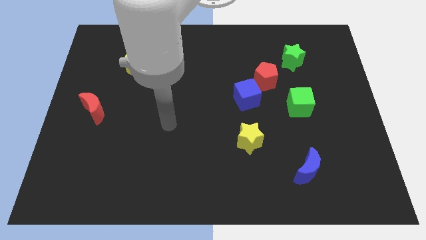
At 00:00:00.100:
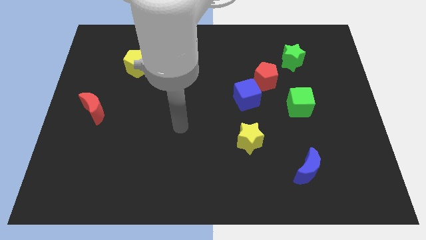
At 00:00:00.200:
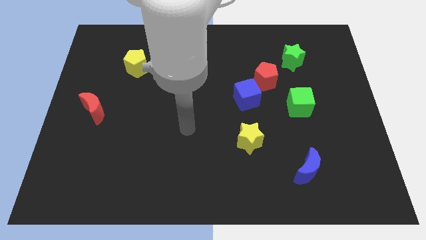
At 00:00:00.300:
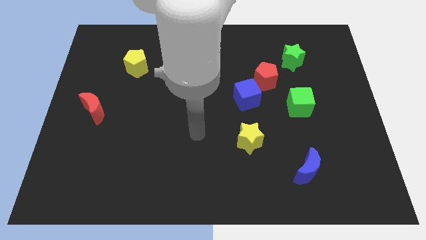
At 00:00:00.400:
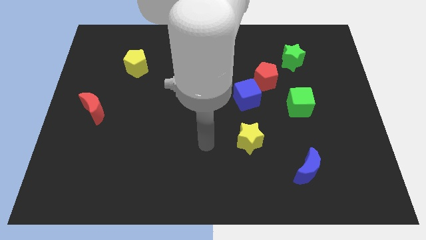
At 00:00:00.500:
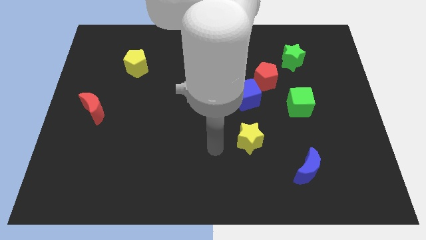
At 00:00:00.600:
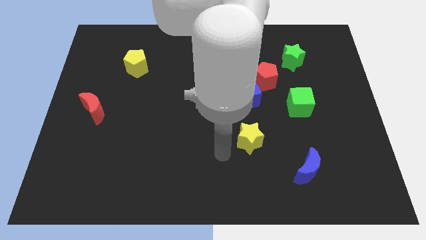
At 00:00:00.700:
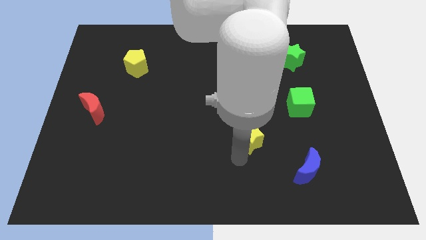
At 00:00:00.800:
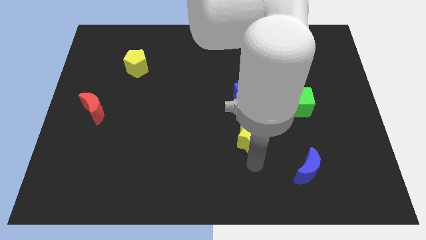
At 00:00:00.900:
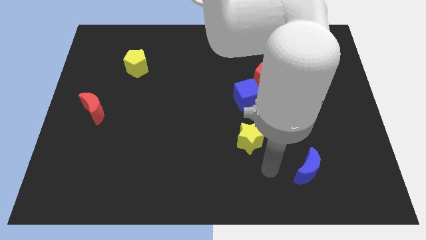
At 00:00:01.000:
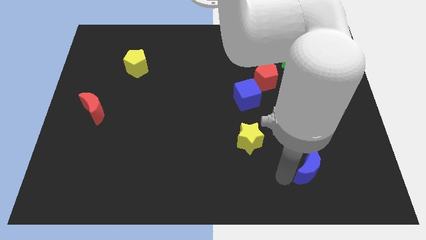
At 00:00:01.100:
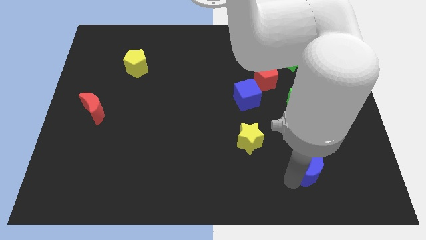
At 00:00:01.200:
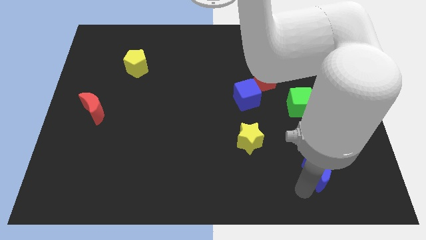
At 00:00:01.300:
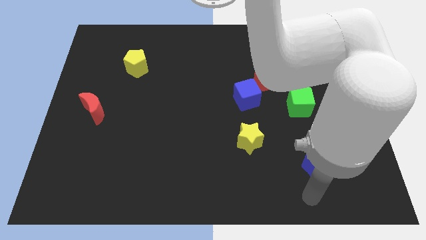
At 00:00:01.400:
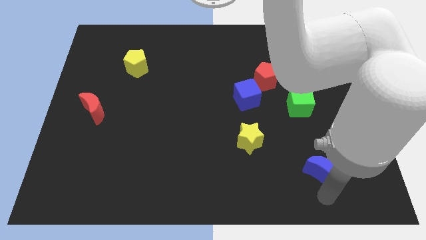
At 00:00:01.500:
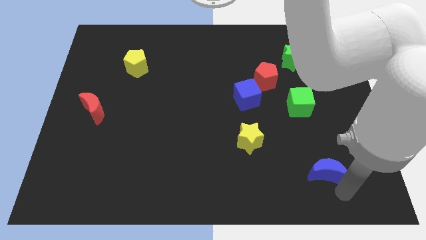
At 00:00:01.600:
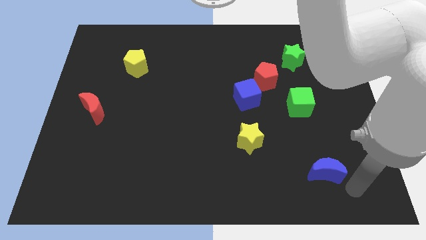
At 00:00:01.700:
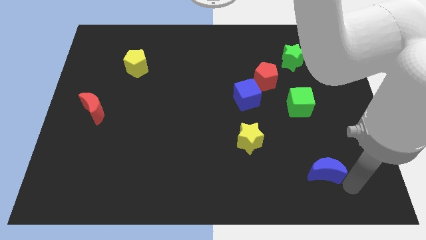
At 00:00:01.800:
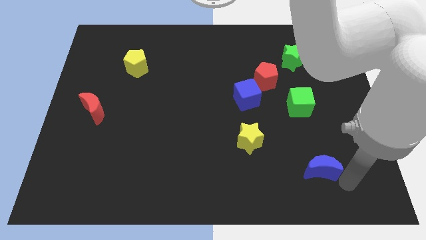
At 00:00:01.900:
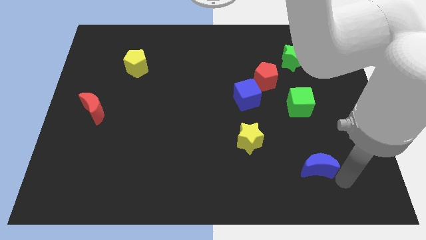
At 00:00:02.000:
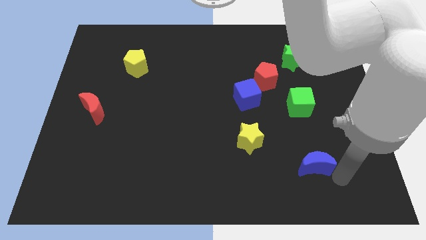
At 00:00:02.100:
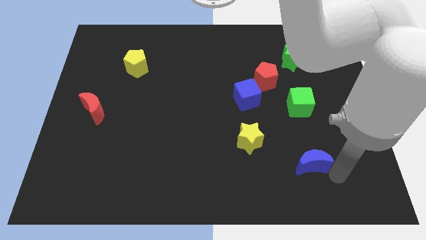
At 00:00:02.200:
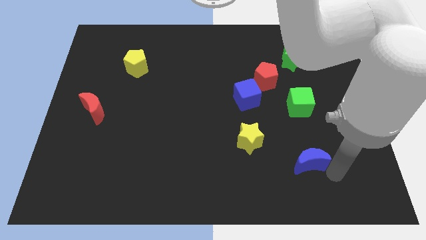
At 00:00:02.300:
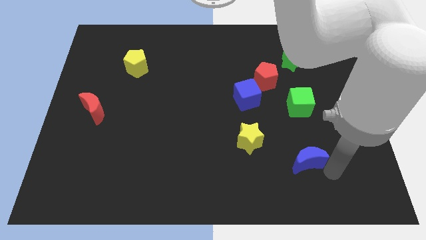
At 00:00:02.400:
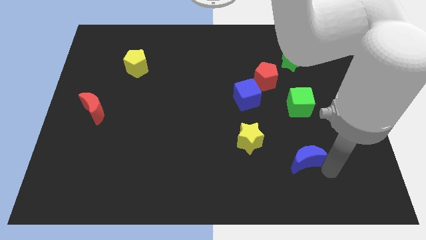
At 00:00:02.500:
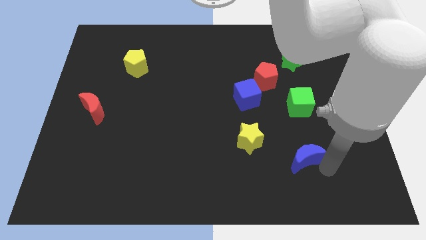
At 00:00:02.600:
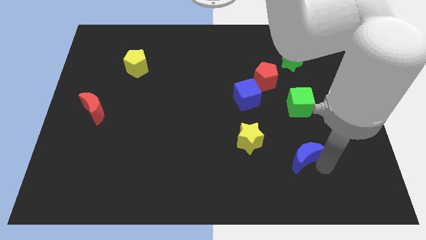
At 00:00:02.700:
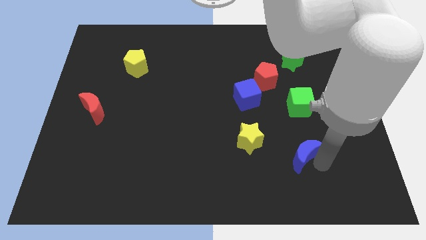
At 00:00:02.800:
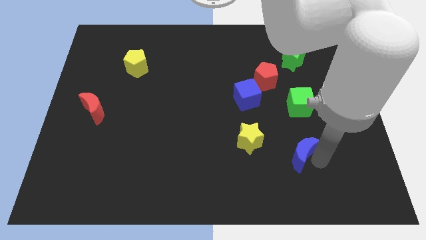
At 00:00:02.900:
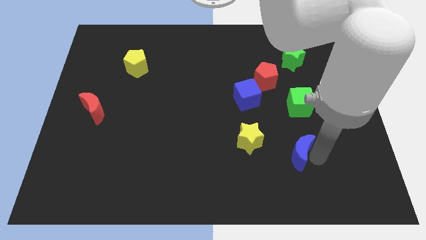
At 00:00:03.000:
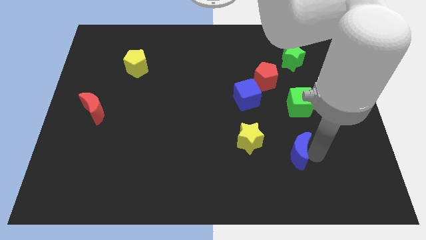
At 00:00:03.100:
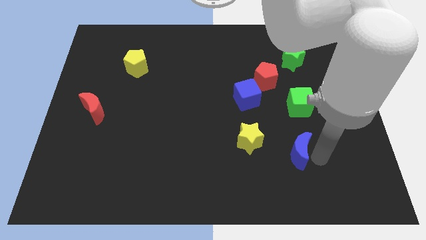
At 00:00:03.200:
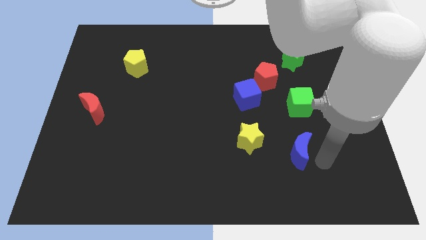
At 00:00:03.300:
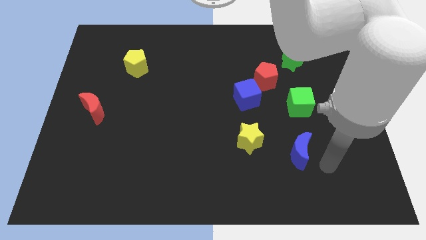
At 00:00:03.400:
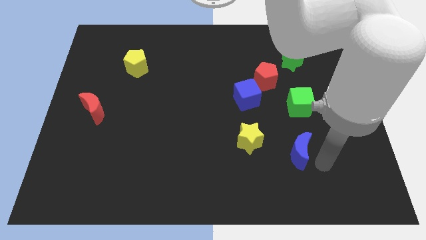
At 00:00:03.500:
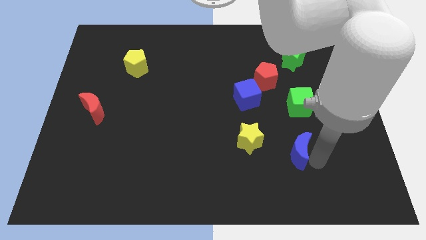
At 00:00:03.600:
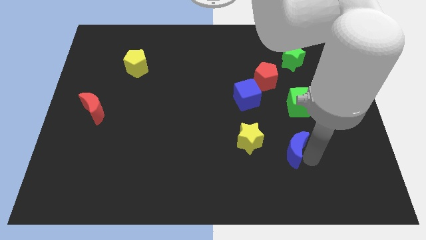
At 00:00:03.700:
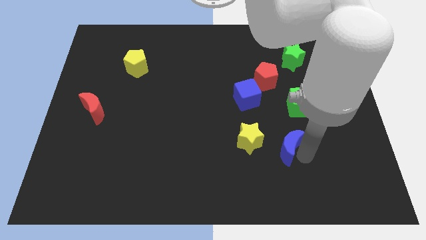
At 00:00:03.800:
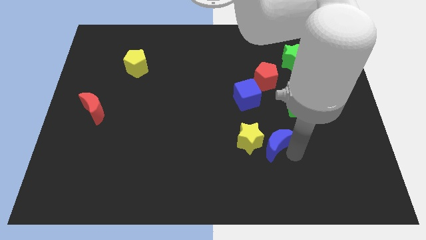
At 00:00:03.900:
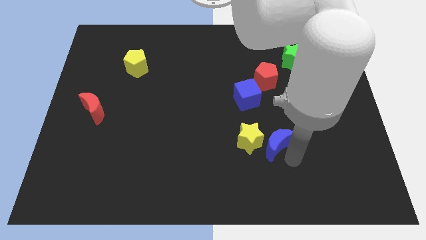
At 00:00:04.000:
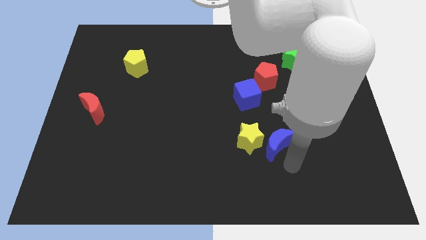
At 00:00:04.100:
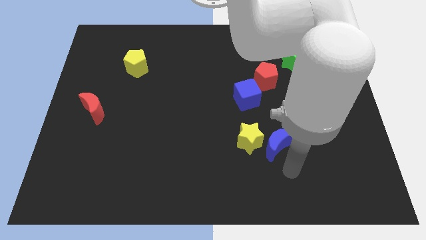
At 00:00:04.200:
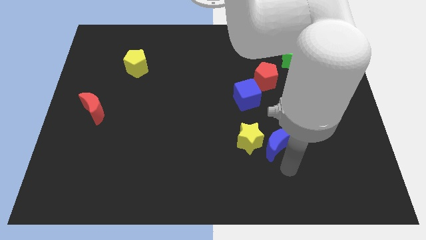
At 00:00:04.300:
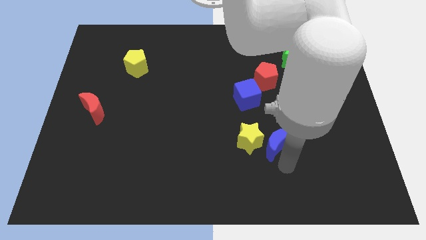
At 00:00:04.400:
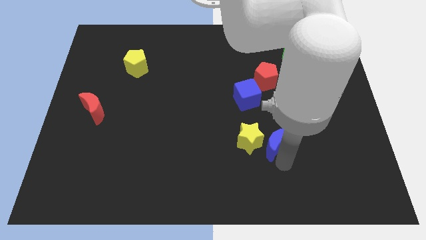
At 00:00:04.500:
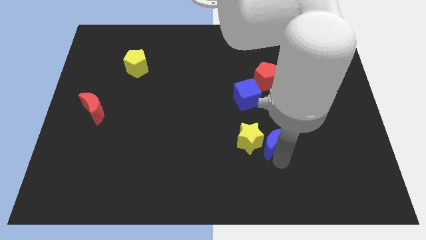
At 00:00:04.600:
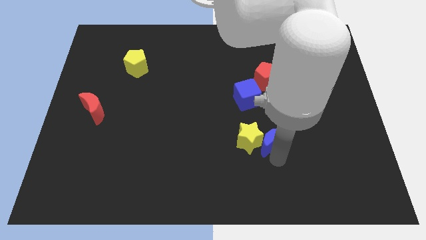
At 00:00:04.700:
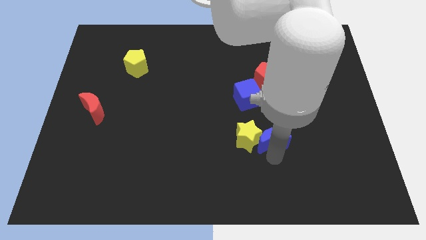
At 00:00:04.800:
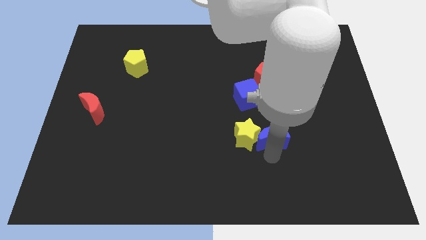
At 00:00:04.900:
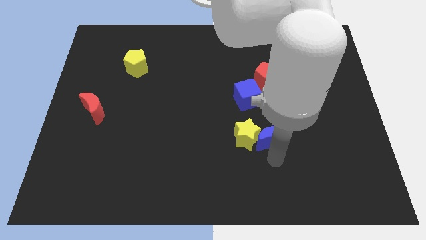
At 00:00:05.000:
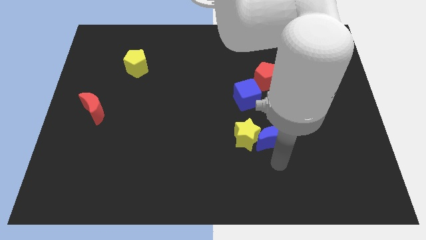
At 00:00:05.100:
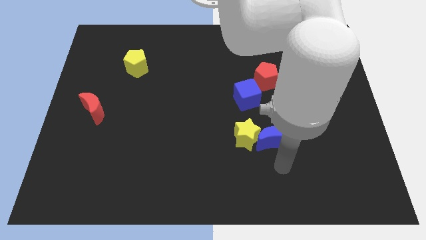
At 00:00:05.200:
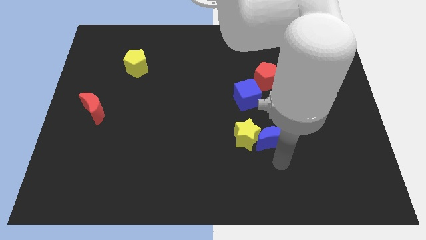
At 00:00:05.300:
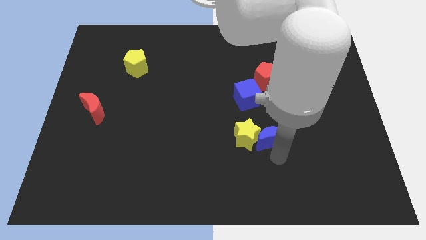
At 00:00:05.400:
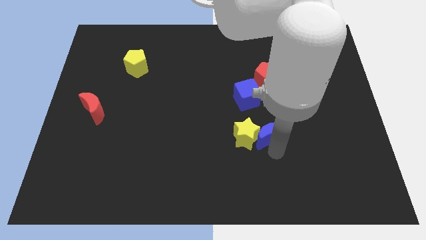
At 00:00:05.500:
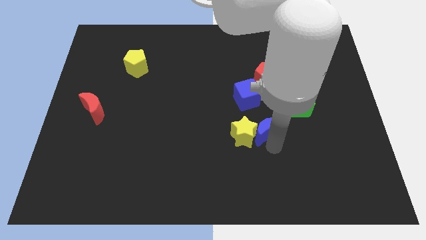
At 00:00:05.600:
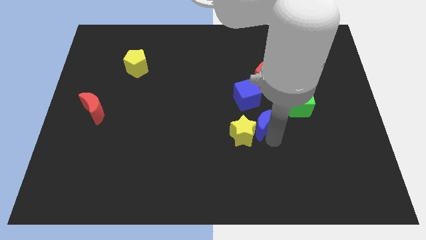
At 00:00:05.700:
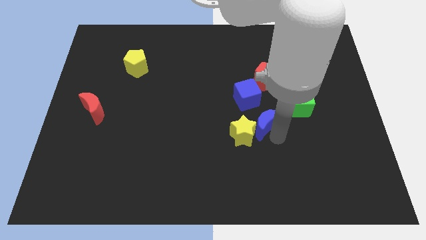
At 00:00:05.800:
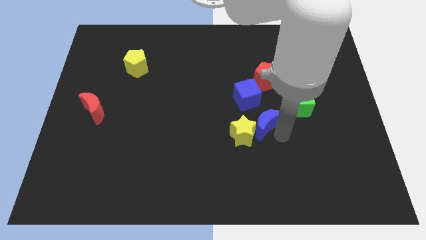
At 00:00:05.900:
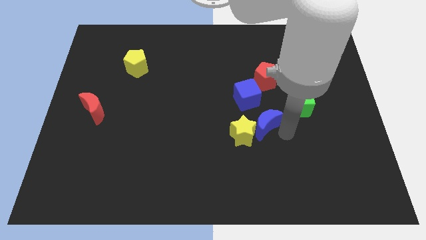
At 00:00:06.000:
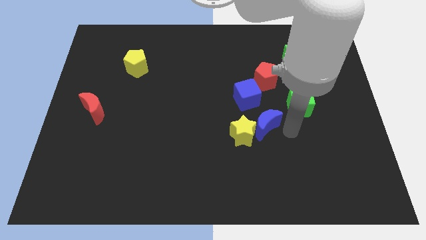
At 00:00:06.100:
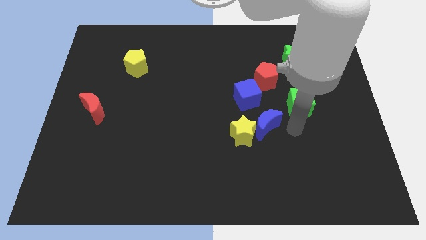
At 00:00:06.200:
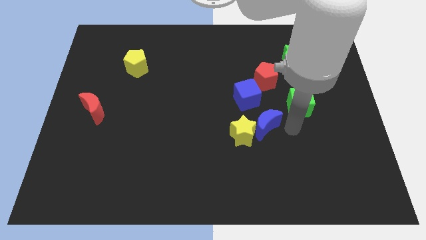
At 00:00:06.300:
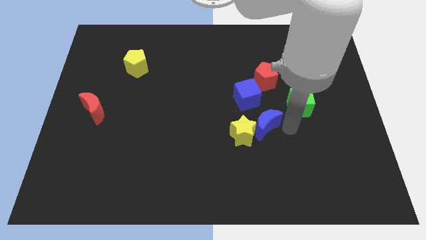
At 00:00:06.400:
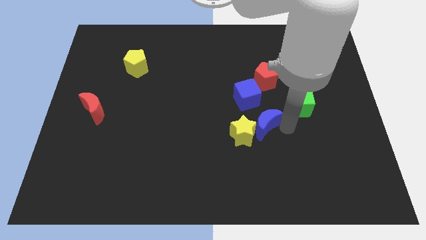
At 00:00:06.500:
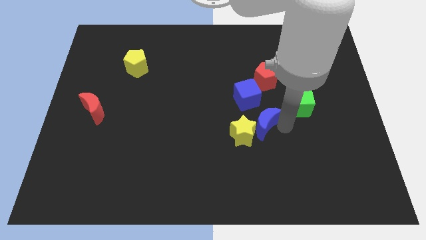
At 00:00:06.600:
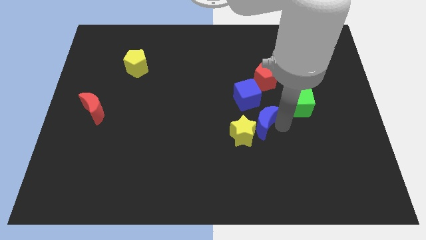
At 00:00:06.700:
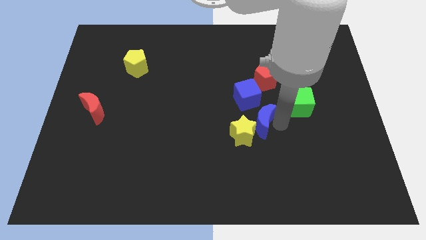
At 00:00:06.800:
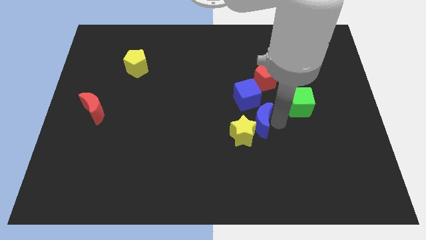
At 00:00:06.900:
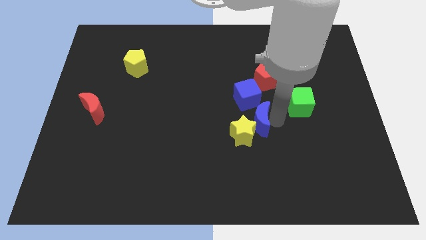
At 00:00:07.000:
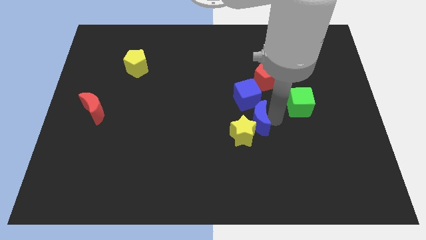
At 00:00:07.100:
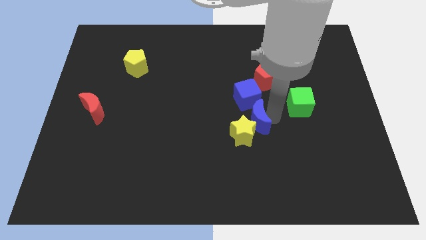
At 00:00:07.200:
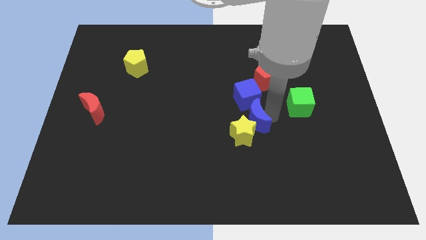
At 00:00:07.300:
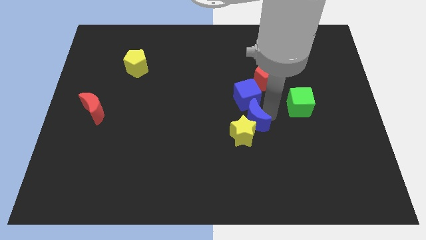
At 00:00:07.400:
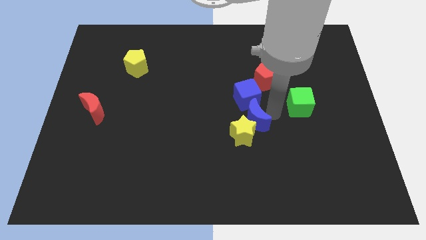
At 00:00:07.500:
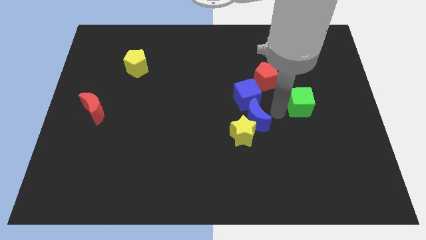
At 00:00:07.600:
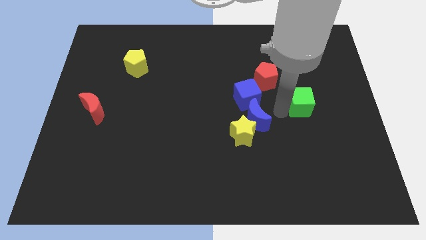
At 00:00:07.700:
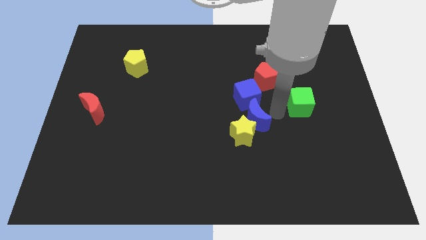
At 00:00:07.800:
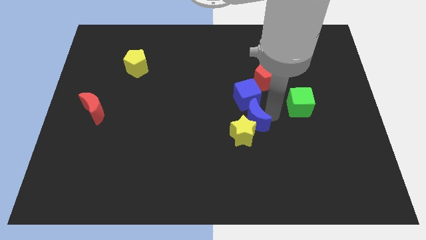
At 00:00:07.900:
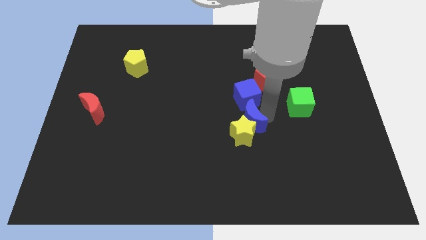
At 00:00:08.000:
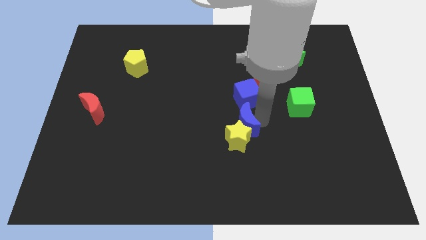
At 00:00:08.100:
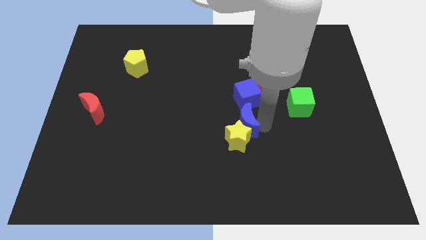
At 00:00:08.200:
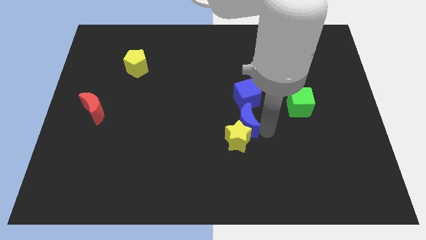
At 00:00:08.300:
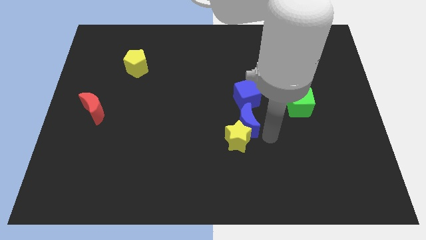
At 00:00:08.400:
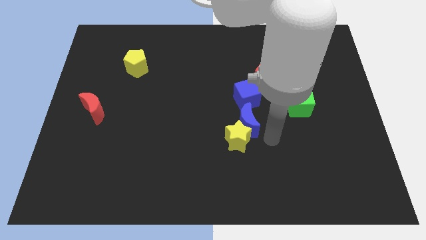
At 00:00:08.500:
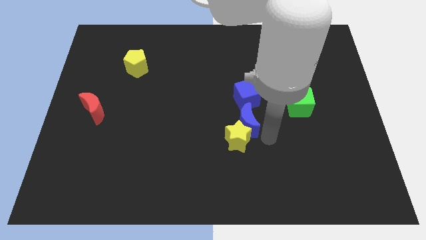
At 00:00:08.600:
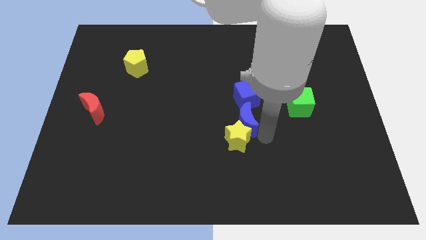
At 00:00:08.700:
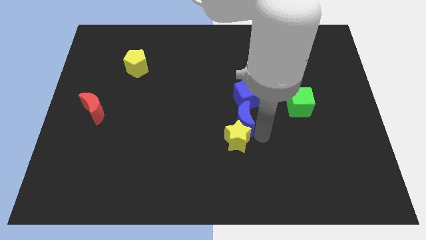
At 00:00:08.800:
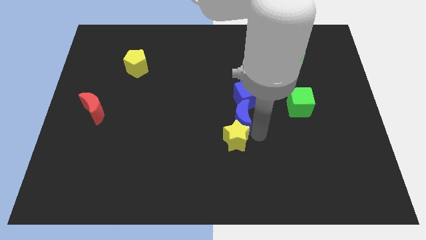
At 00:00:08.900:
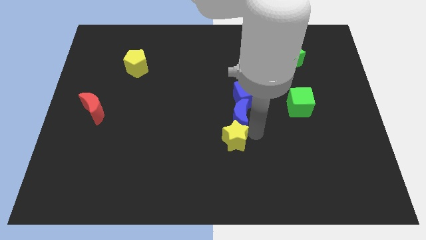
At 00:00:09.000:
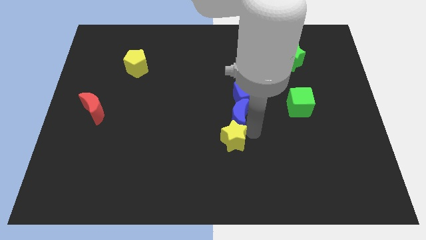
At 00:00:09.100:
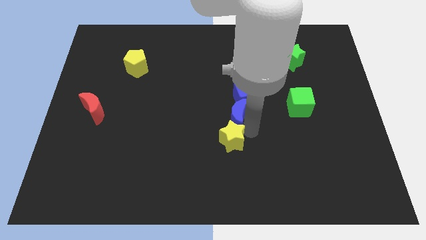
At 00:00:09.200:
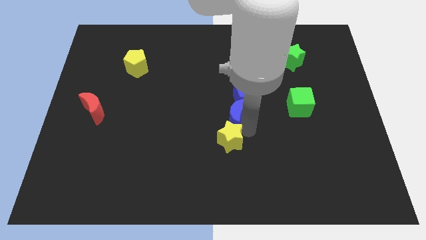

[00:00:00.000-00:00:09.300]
push the blue moon upwards and then to the left
